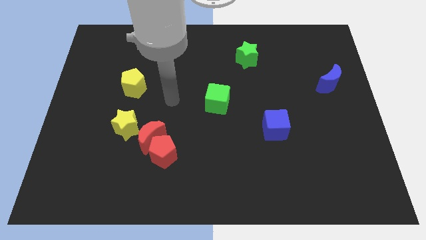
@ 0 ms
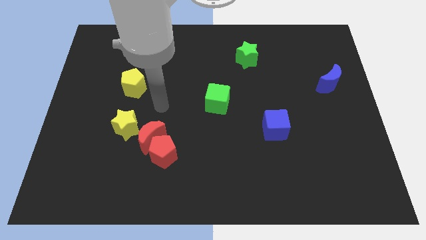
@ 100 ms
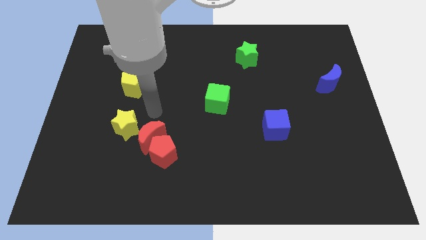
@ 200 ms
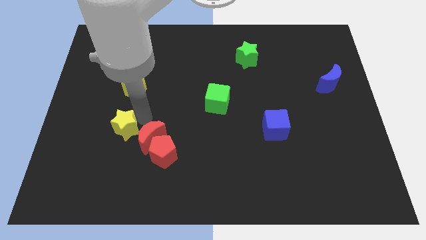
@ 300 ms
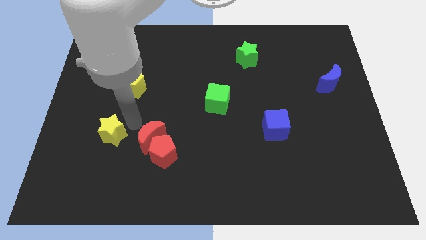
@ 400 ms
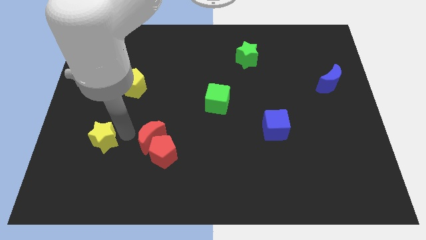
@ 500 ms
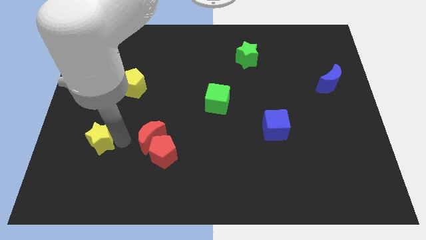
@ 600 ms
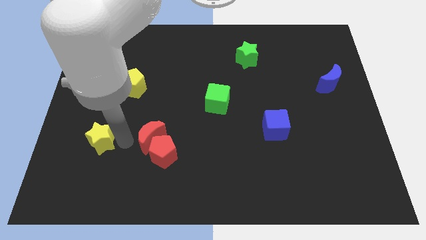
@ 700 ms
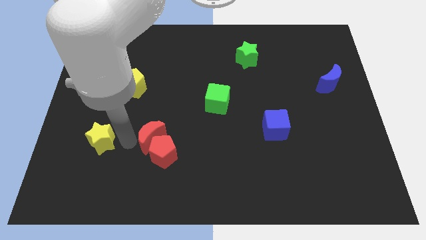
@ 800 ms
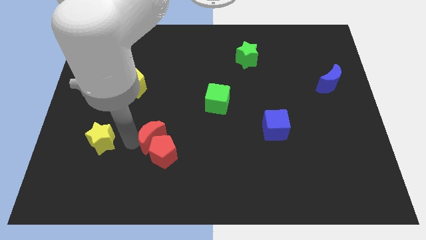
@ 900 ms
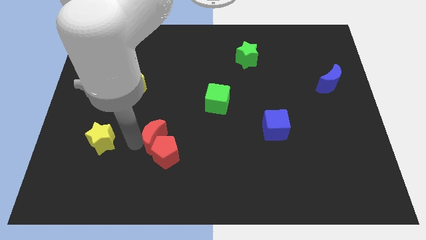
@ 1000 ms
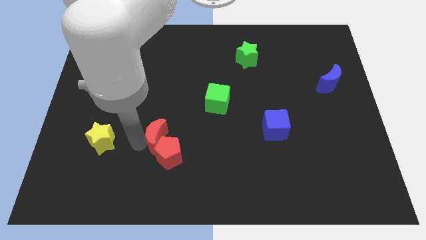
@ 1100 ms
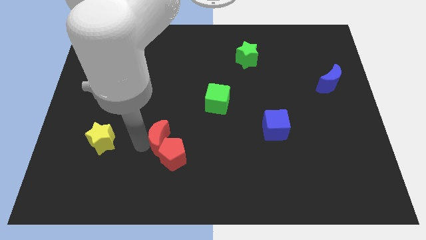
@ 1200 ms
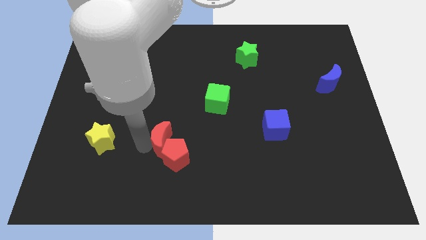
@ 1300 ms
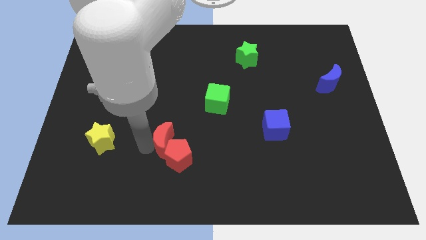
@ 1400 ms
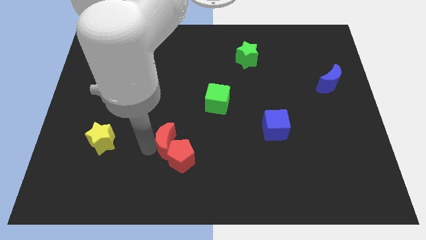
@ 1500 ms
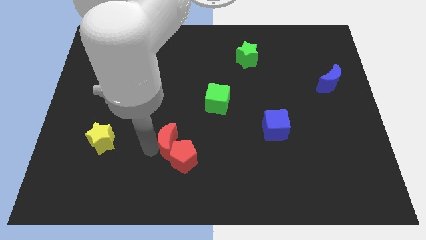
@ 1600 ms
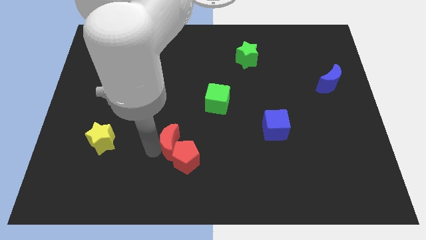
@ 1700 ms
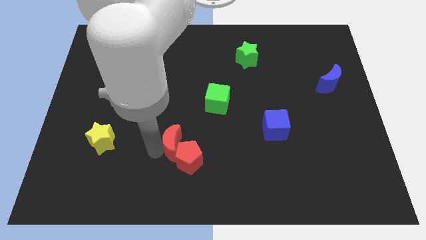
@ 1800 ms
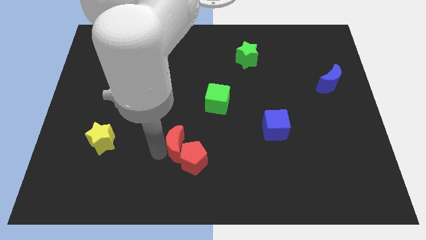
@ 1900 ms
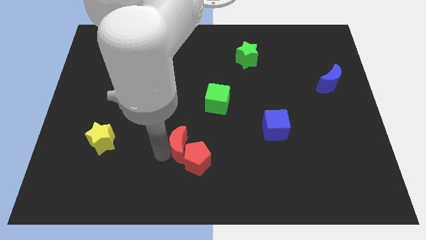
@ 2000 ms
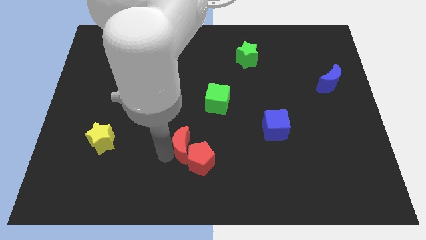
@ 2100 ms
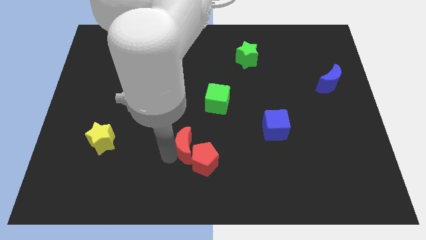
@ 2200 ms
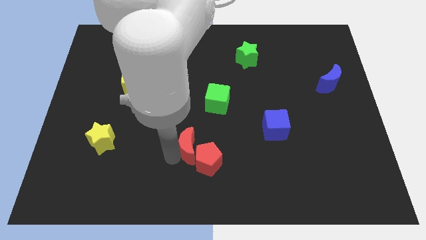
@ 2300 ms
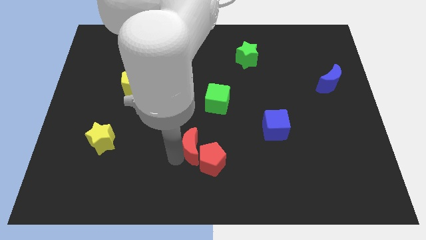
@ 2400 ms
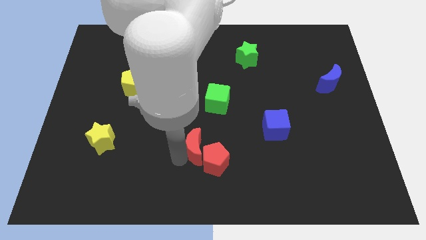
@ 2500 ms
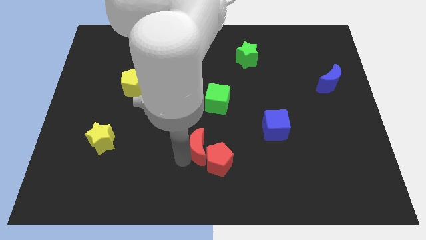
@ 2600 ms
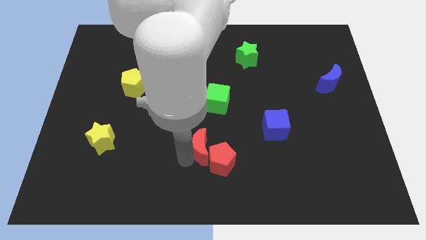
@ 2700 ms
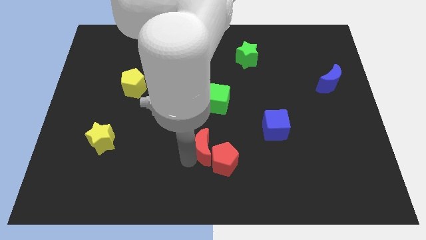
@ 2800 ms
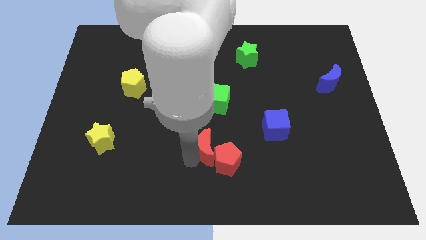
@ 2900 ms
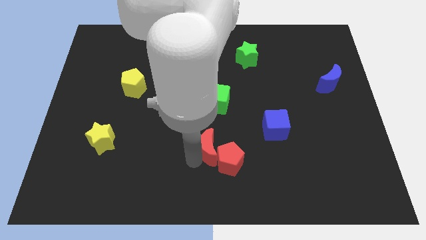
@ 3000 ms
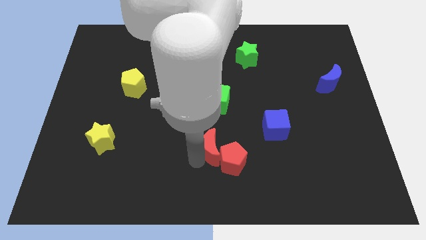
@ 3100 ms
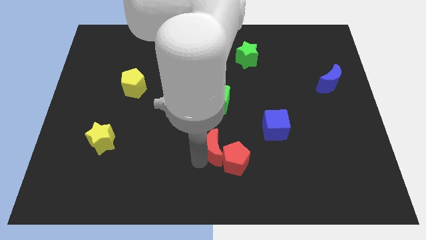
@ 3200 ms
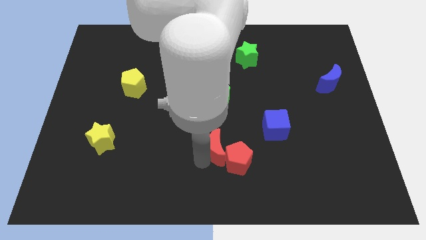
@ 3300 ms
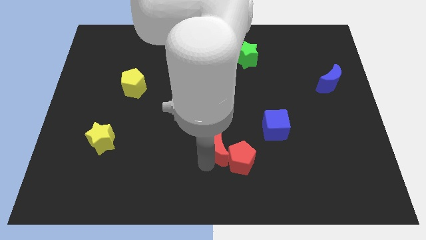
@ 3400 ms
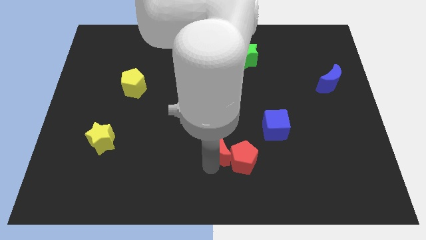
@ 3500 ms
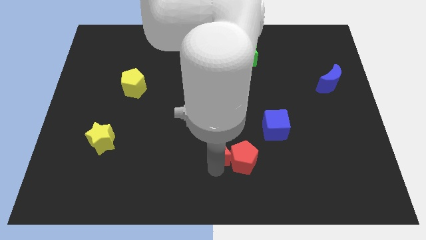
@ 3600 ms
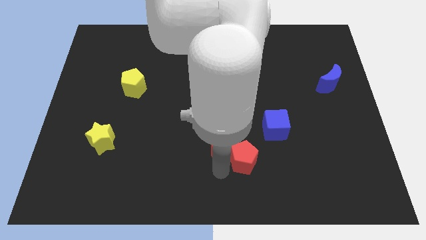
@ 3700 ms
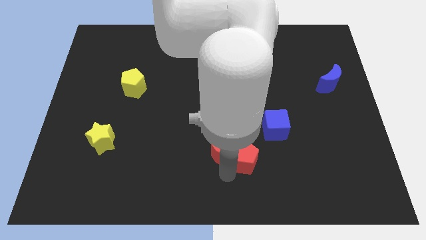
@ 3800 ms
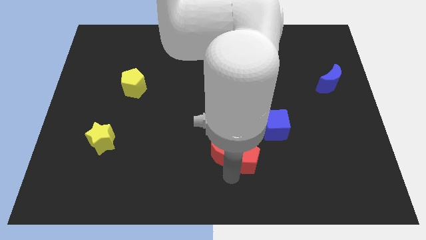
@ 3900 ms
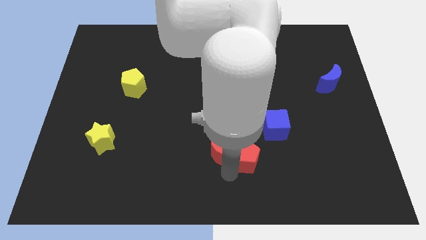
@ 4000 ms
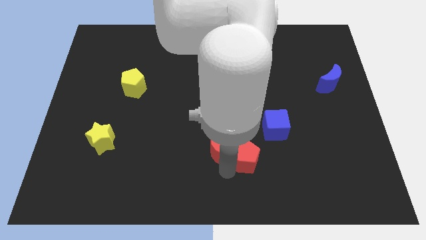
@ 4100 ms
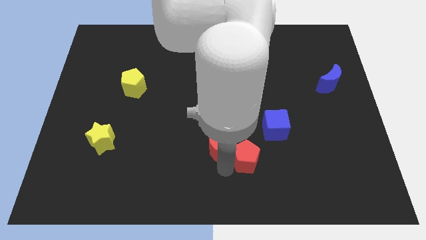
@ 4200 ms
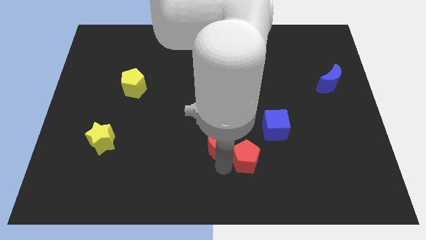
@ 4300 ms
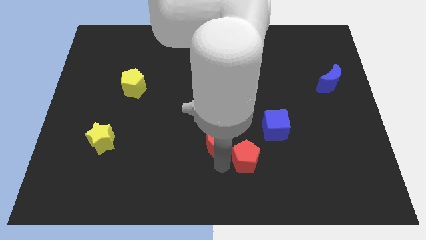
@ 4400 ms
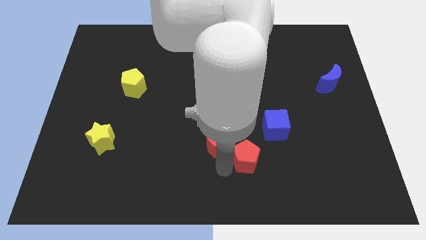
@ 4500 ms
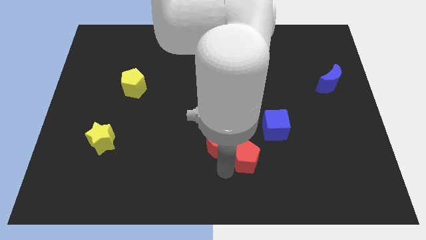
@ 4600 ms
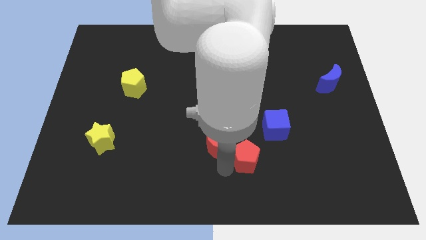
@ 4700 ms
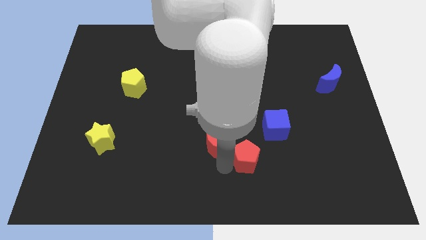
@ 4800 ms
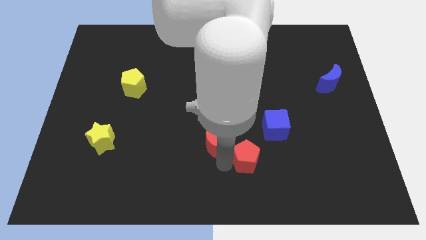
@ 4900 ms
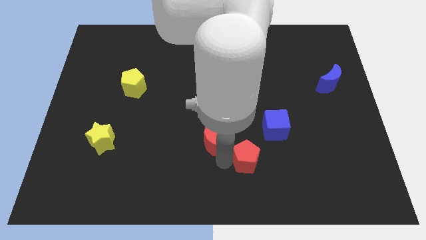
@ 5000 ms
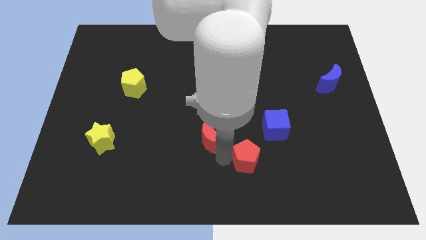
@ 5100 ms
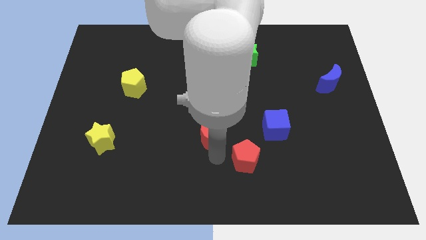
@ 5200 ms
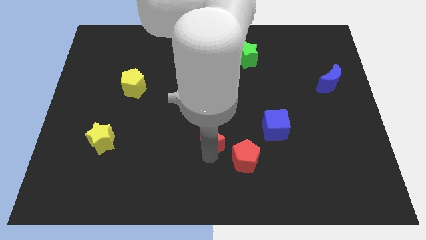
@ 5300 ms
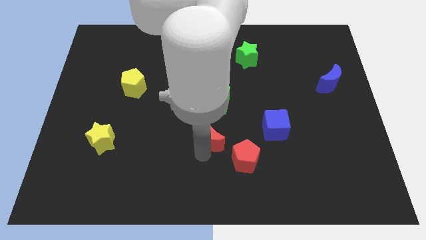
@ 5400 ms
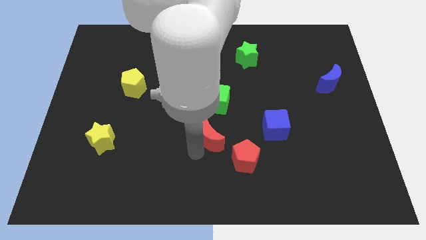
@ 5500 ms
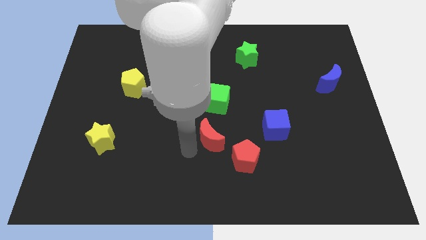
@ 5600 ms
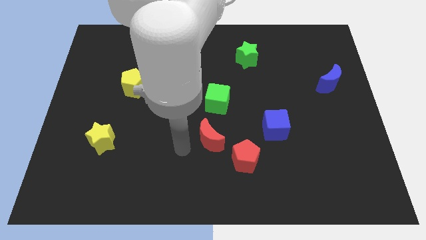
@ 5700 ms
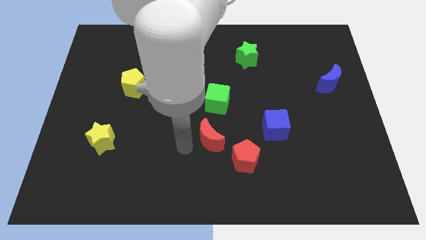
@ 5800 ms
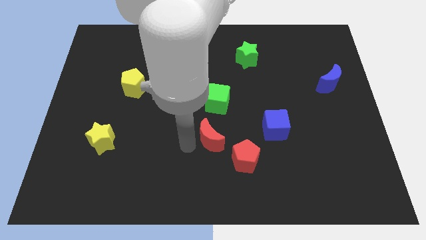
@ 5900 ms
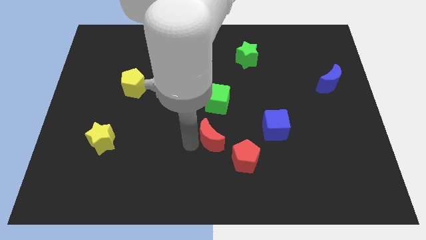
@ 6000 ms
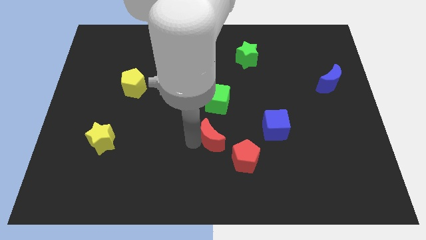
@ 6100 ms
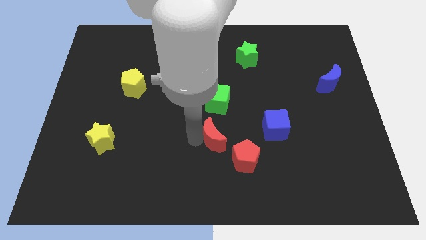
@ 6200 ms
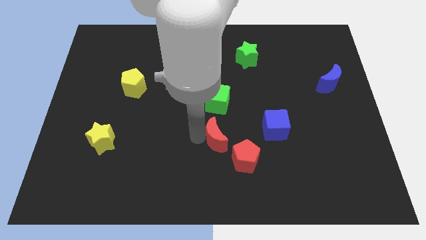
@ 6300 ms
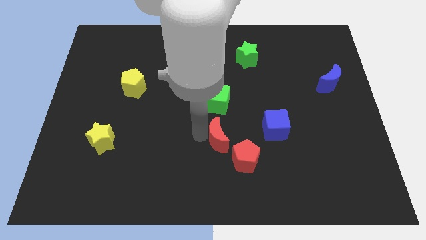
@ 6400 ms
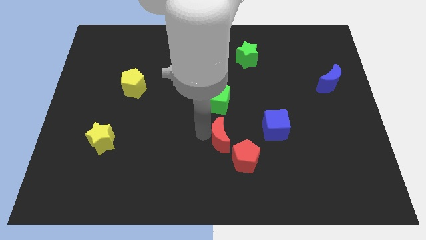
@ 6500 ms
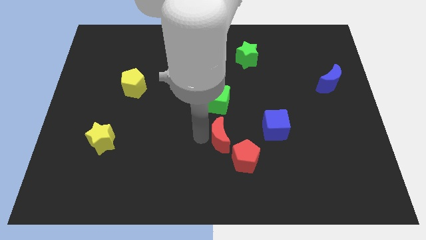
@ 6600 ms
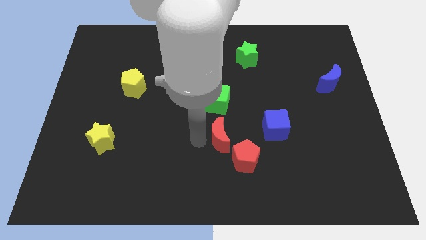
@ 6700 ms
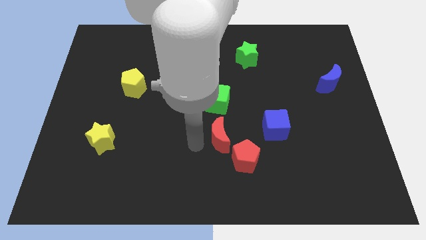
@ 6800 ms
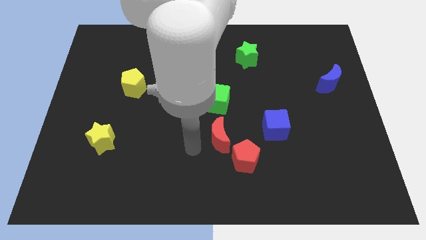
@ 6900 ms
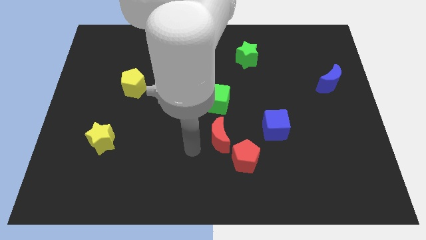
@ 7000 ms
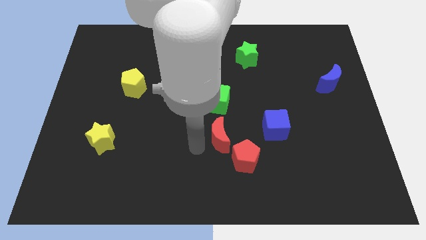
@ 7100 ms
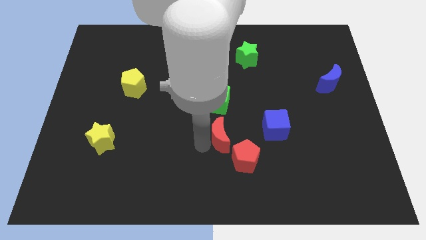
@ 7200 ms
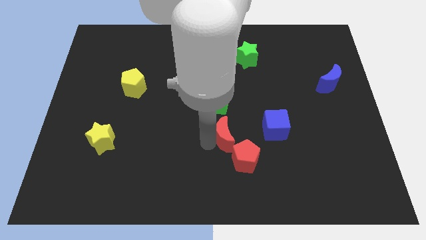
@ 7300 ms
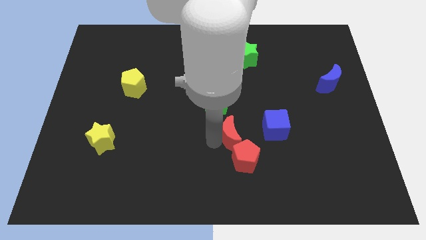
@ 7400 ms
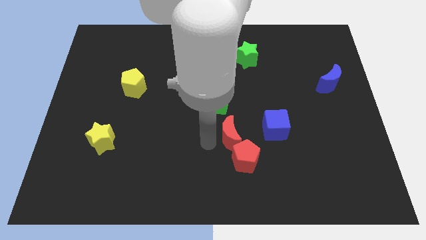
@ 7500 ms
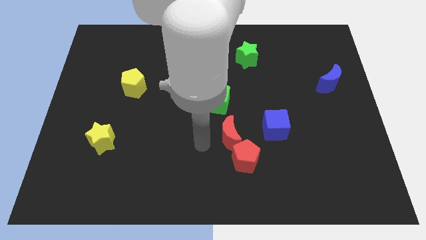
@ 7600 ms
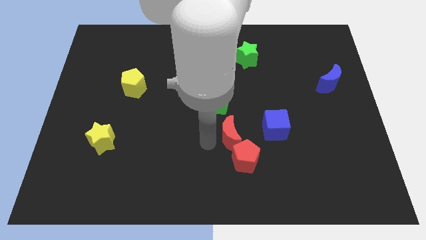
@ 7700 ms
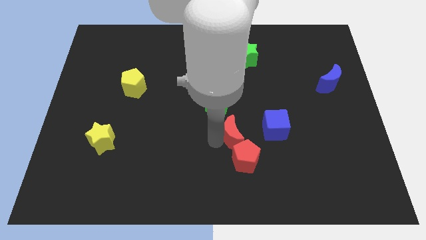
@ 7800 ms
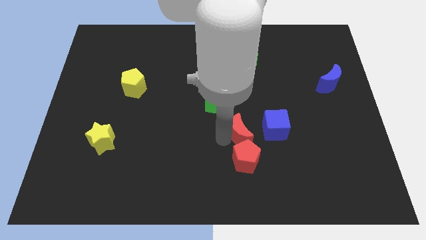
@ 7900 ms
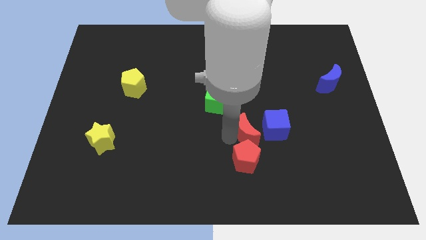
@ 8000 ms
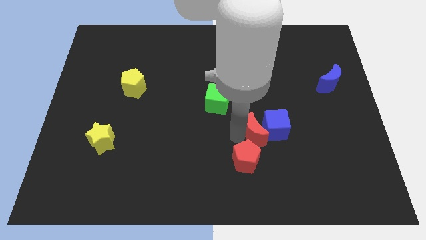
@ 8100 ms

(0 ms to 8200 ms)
put the red moon close to the blue cube
